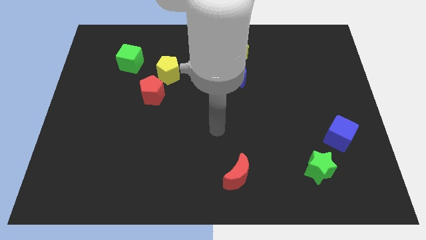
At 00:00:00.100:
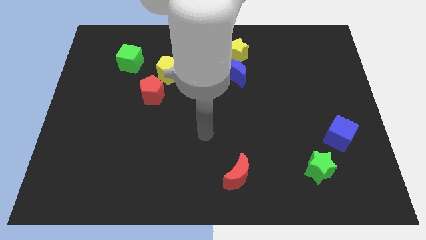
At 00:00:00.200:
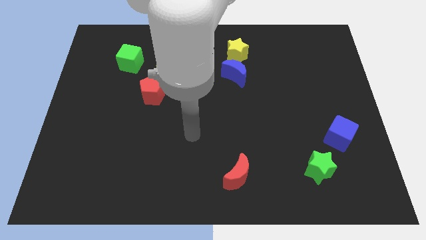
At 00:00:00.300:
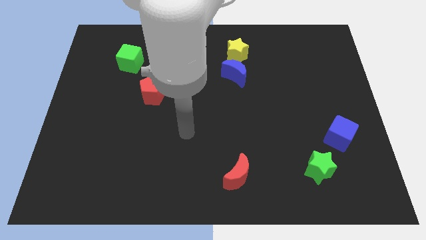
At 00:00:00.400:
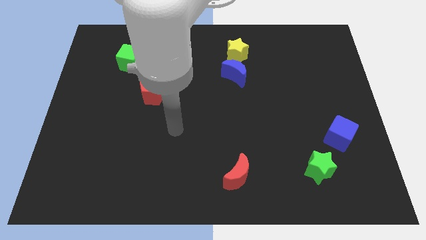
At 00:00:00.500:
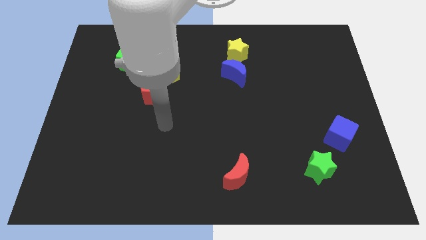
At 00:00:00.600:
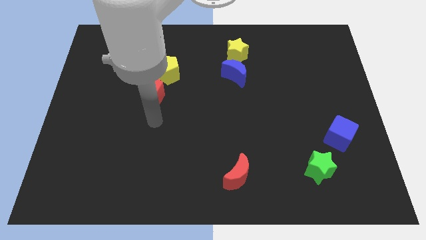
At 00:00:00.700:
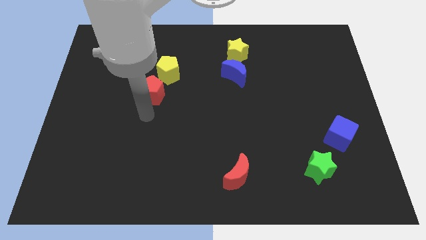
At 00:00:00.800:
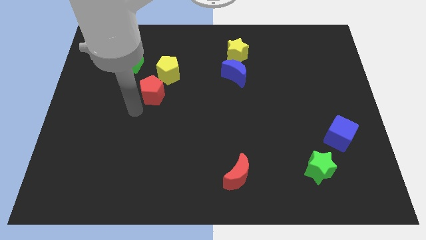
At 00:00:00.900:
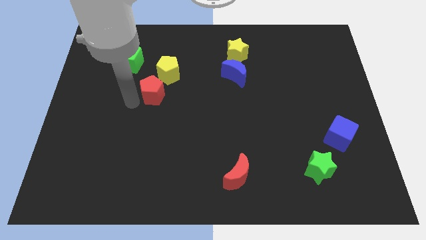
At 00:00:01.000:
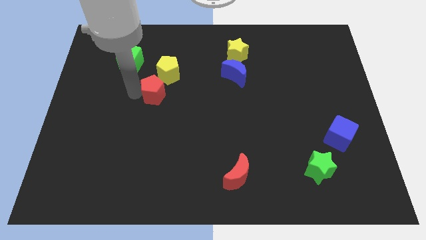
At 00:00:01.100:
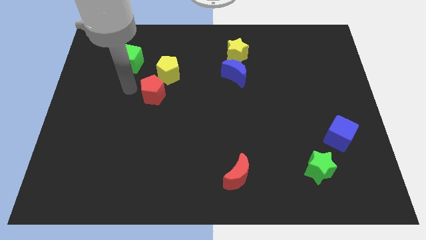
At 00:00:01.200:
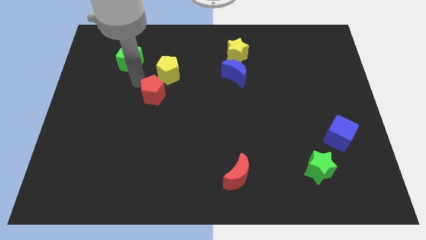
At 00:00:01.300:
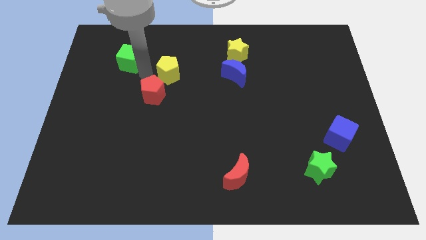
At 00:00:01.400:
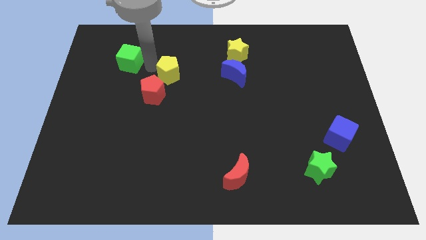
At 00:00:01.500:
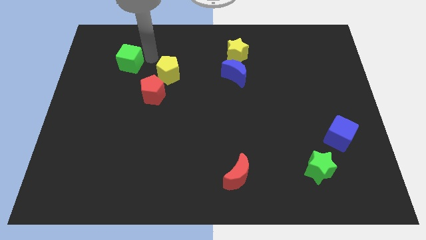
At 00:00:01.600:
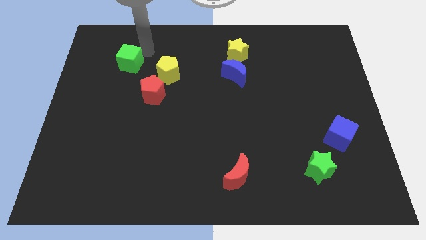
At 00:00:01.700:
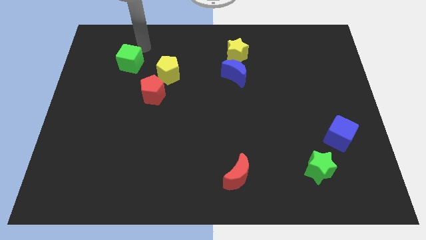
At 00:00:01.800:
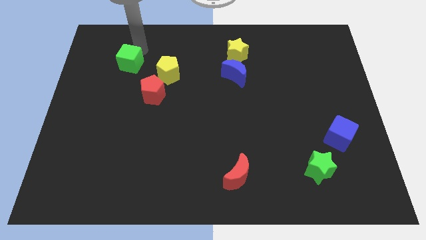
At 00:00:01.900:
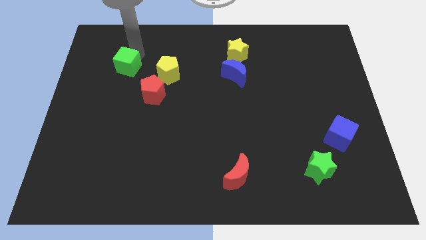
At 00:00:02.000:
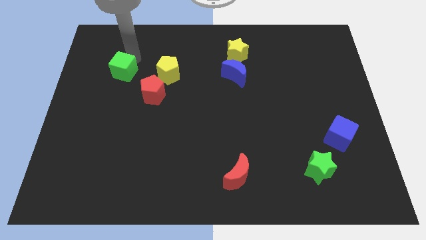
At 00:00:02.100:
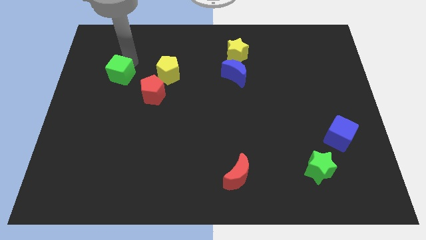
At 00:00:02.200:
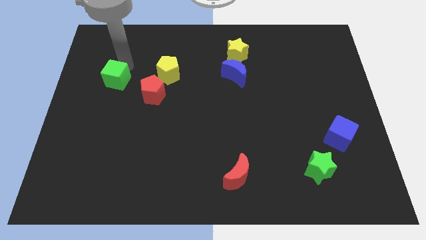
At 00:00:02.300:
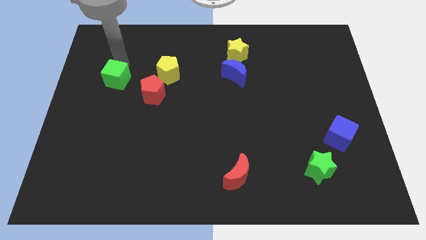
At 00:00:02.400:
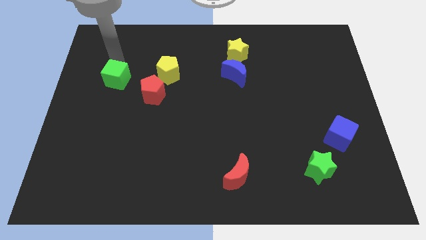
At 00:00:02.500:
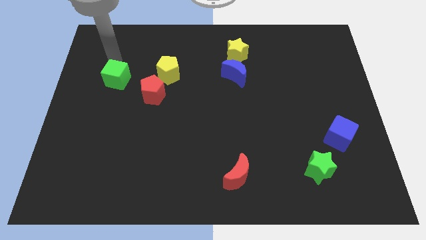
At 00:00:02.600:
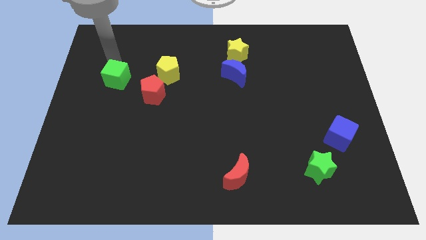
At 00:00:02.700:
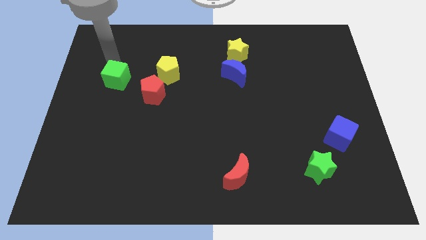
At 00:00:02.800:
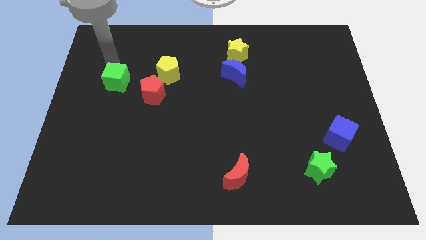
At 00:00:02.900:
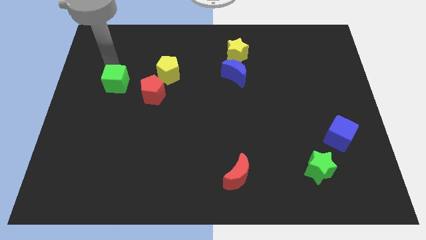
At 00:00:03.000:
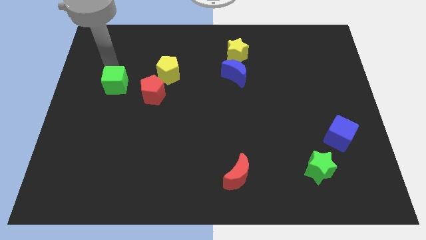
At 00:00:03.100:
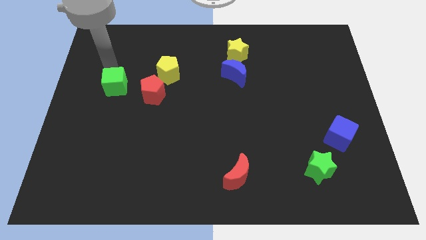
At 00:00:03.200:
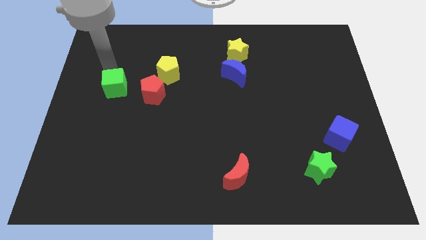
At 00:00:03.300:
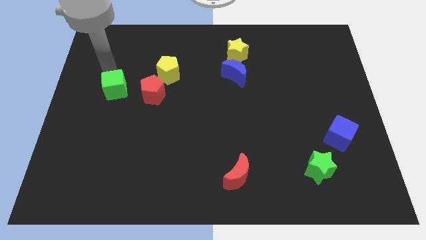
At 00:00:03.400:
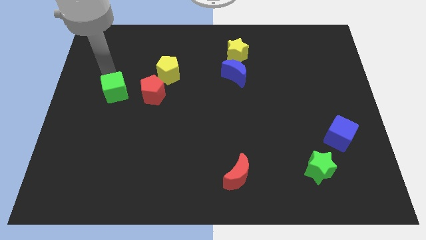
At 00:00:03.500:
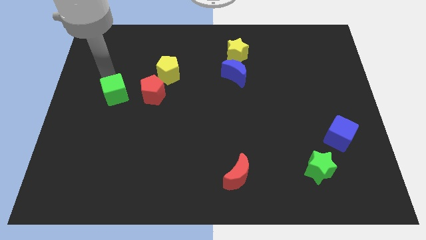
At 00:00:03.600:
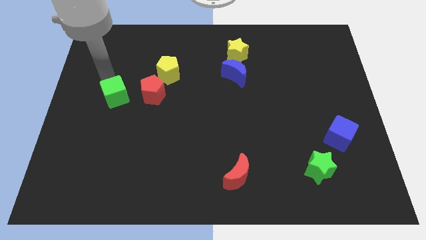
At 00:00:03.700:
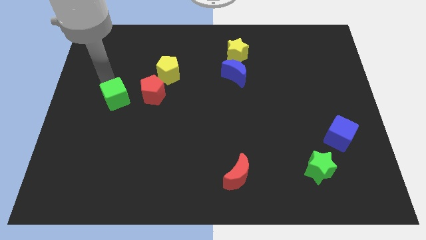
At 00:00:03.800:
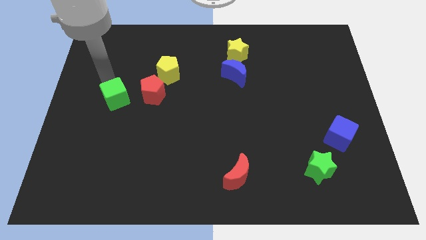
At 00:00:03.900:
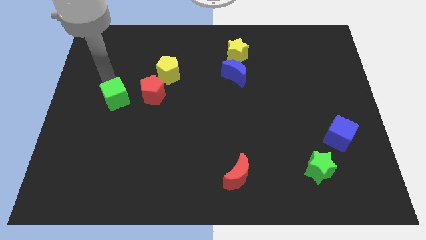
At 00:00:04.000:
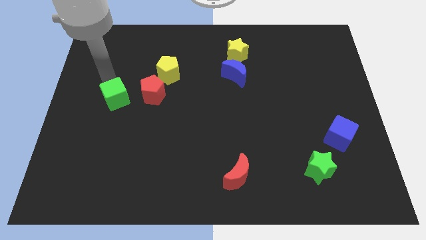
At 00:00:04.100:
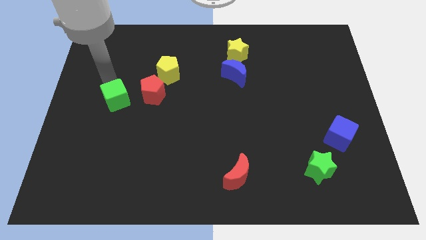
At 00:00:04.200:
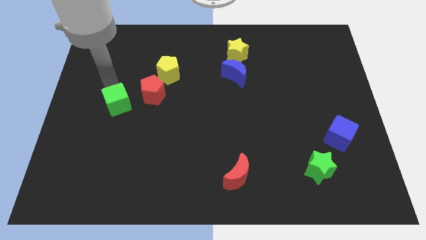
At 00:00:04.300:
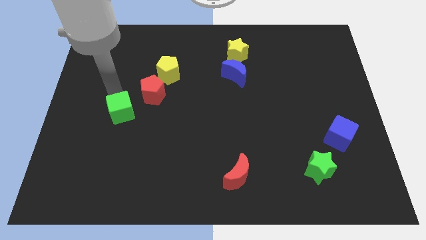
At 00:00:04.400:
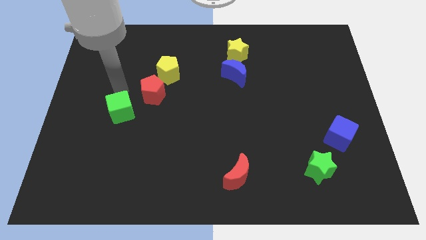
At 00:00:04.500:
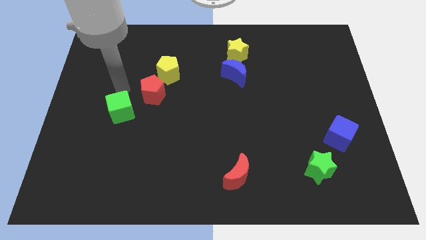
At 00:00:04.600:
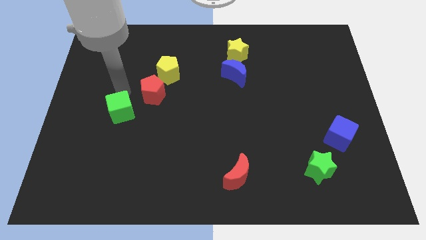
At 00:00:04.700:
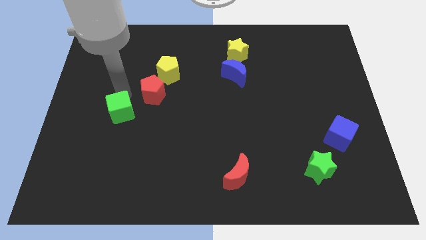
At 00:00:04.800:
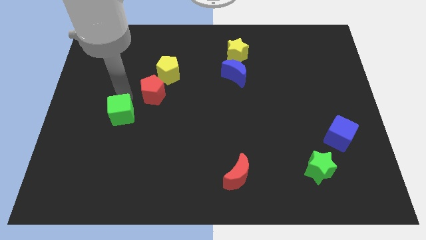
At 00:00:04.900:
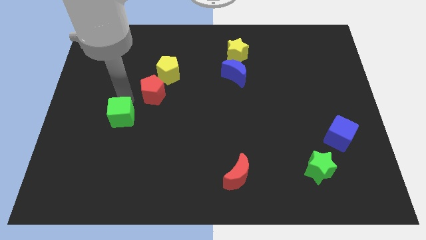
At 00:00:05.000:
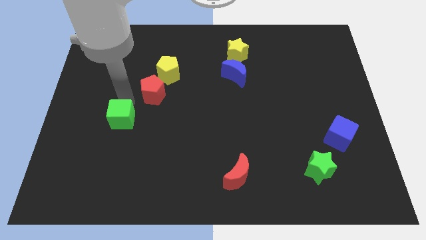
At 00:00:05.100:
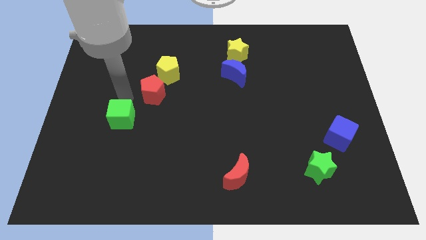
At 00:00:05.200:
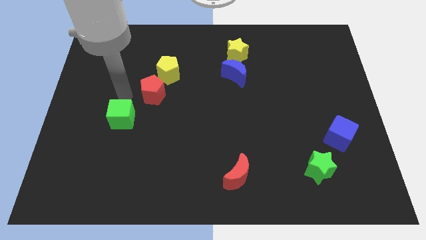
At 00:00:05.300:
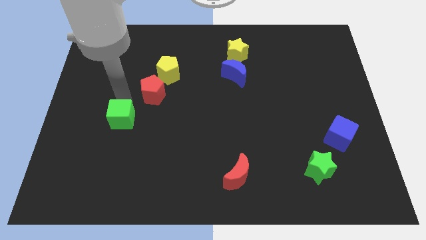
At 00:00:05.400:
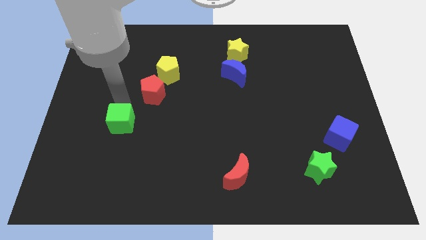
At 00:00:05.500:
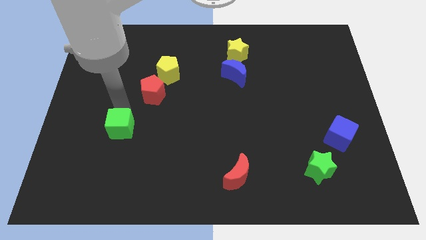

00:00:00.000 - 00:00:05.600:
push the green cube downwards

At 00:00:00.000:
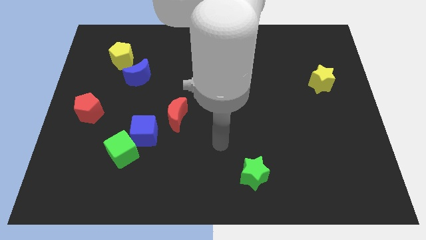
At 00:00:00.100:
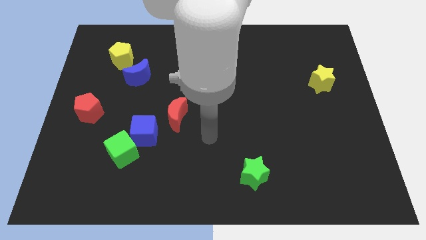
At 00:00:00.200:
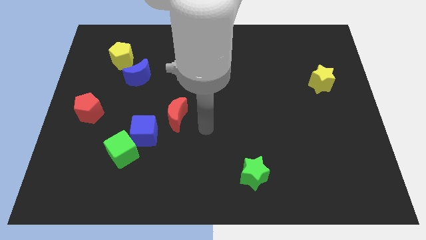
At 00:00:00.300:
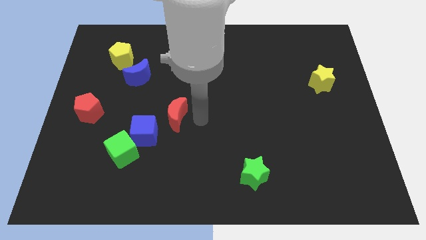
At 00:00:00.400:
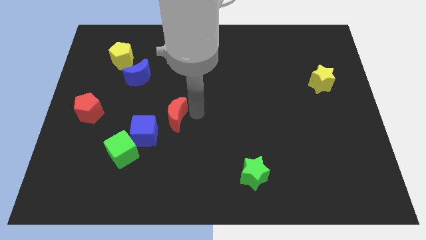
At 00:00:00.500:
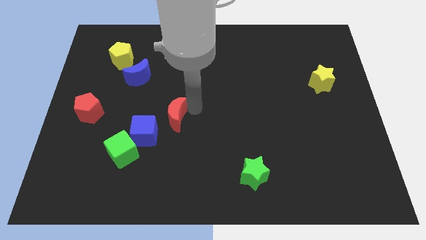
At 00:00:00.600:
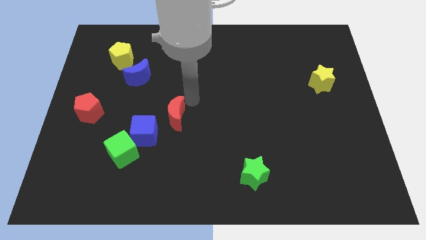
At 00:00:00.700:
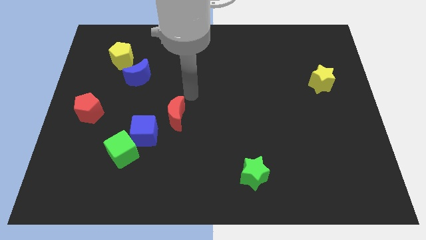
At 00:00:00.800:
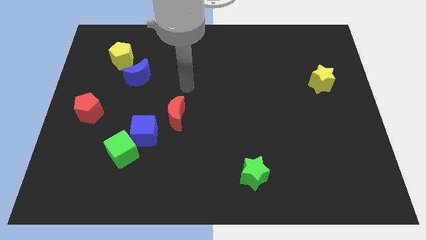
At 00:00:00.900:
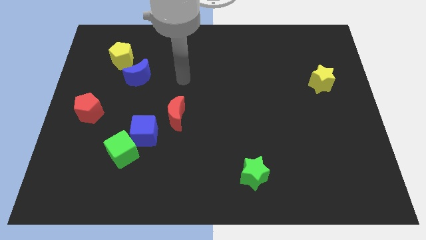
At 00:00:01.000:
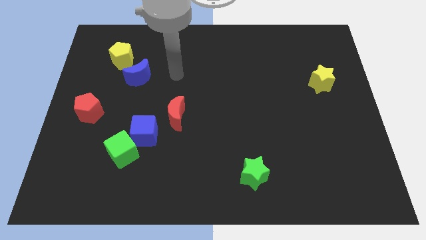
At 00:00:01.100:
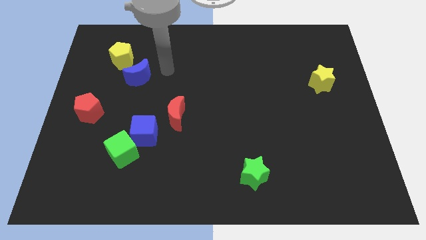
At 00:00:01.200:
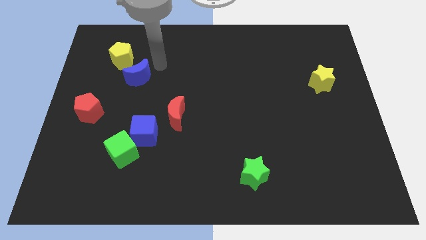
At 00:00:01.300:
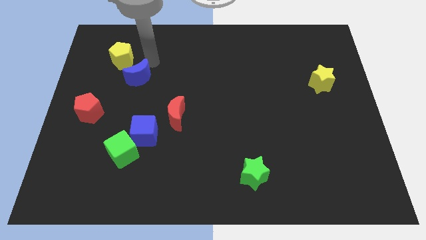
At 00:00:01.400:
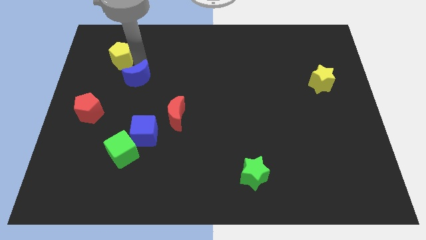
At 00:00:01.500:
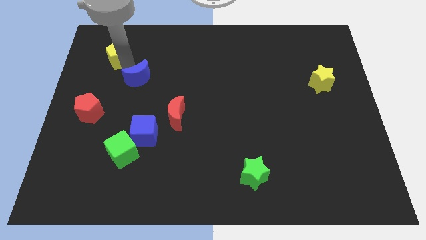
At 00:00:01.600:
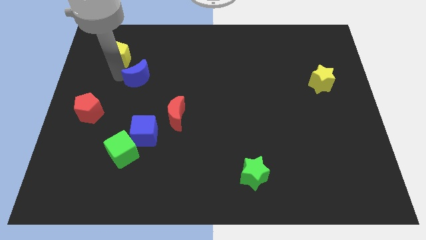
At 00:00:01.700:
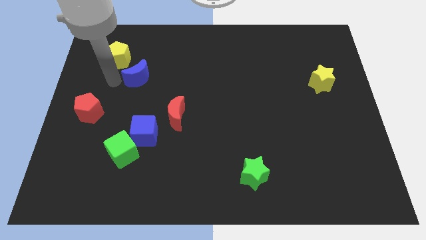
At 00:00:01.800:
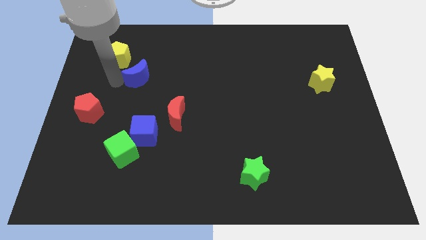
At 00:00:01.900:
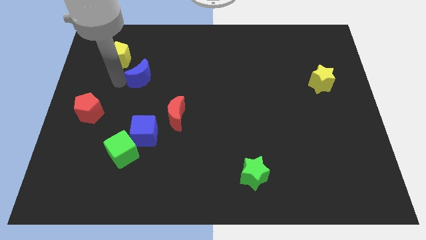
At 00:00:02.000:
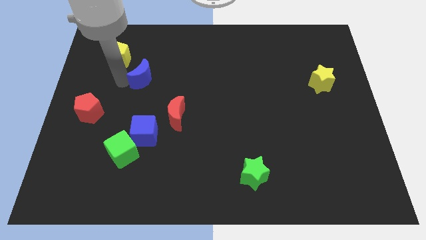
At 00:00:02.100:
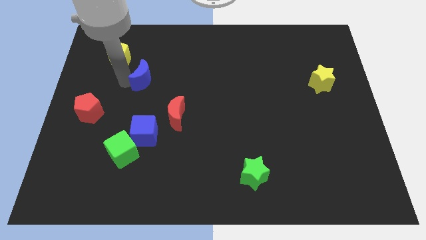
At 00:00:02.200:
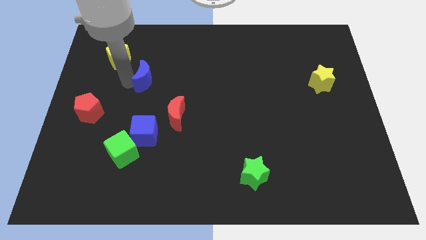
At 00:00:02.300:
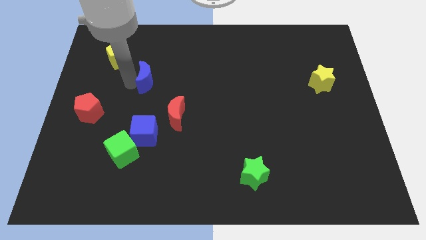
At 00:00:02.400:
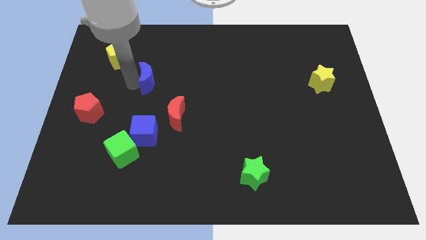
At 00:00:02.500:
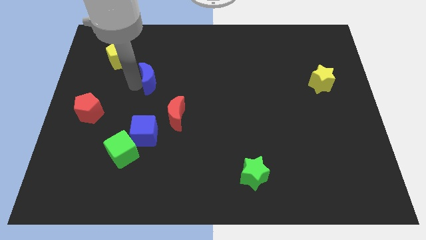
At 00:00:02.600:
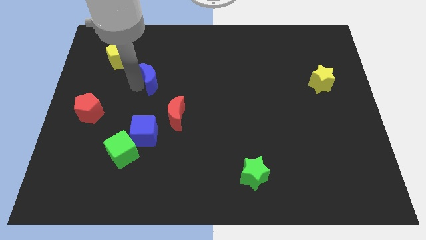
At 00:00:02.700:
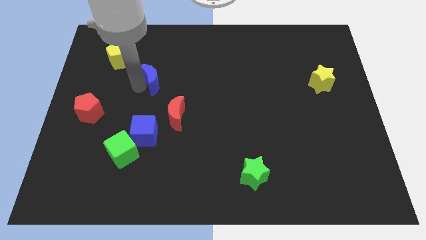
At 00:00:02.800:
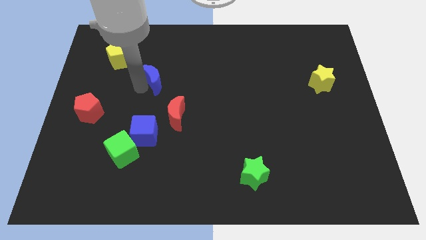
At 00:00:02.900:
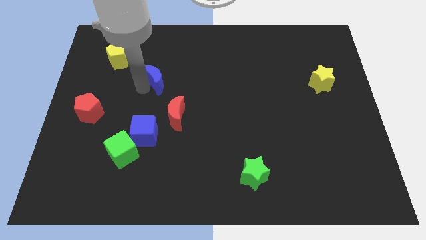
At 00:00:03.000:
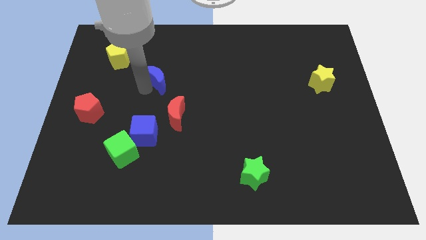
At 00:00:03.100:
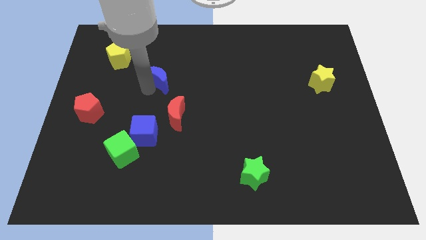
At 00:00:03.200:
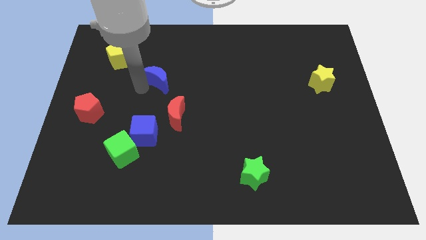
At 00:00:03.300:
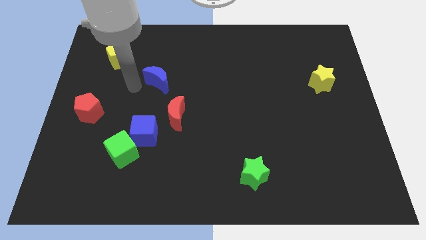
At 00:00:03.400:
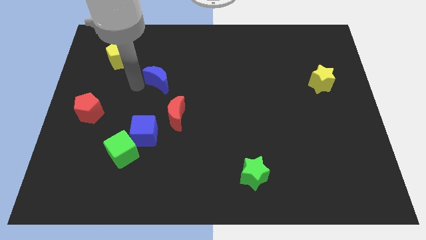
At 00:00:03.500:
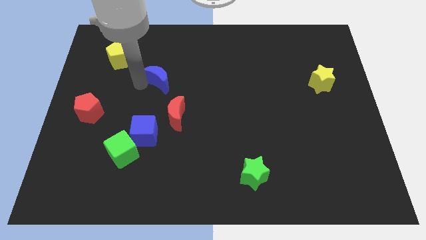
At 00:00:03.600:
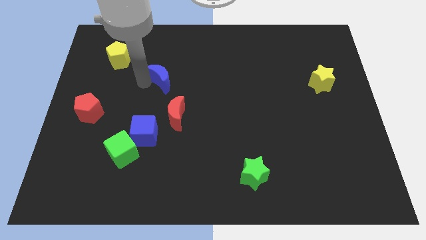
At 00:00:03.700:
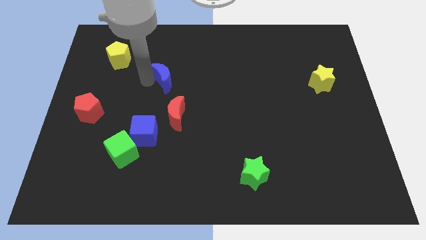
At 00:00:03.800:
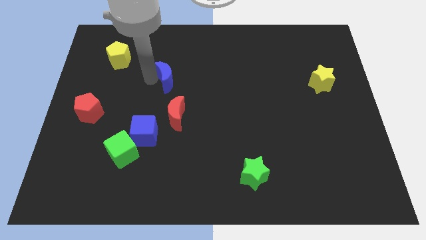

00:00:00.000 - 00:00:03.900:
push the blue moon right a bit
